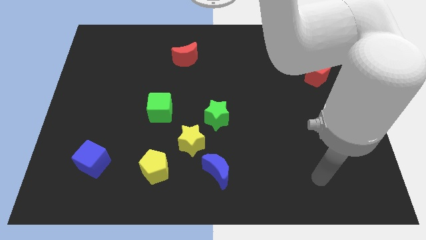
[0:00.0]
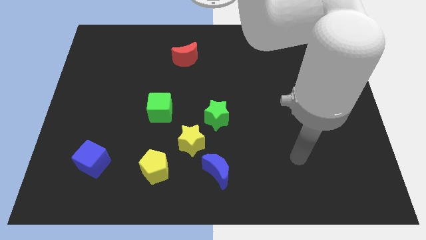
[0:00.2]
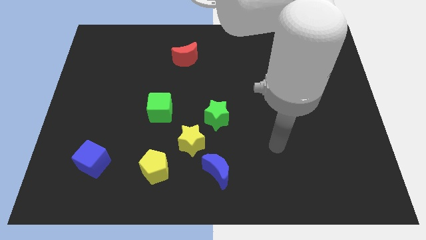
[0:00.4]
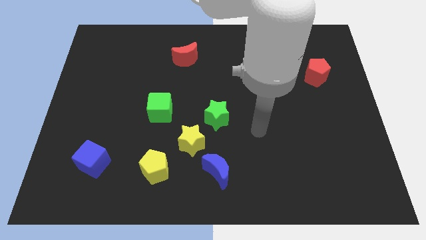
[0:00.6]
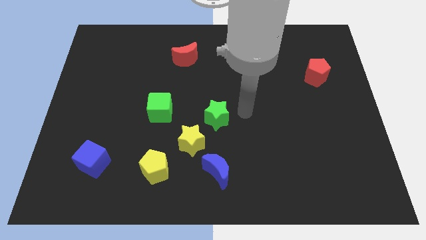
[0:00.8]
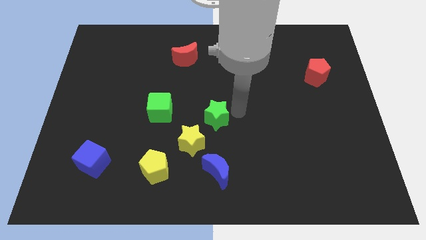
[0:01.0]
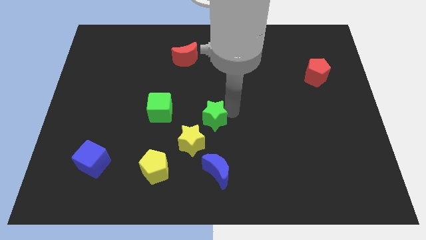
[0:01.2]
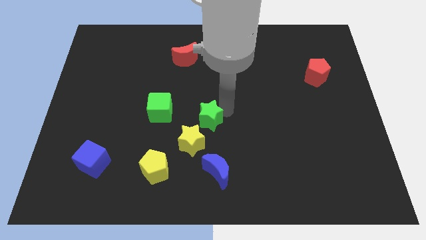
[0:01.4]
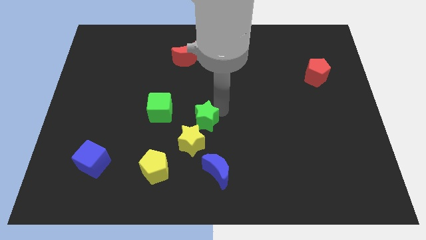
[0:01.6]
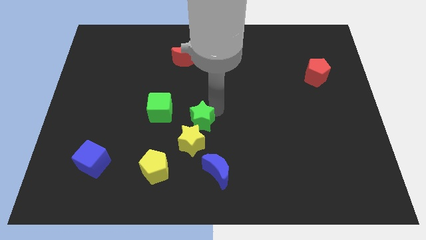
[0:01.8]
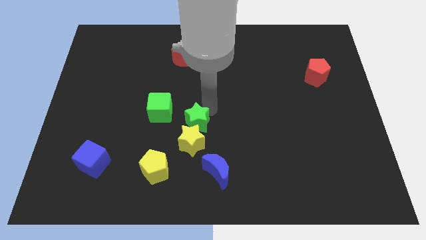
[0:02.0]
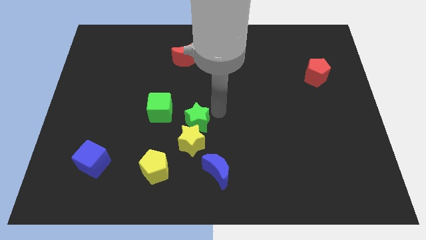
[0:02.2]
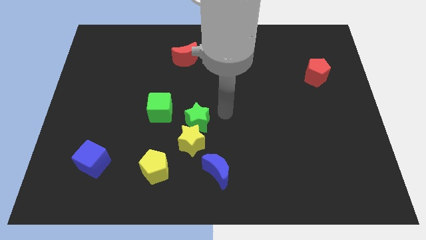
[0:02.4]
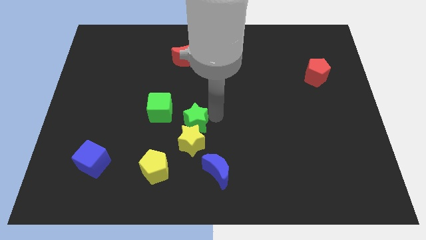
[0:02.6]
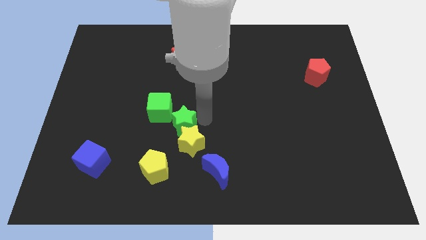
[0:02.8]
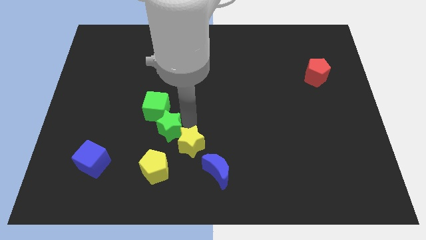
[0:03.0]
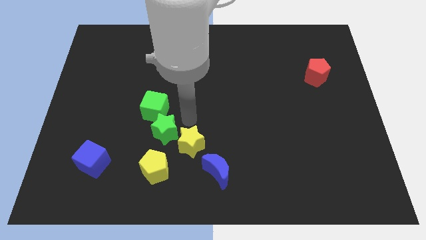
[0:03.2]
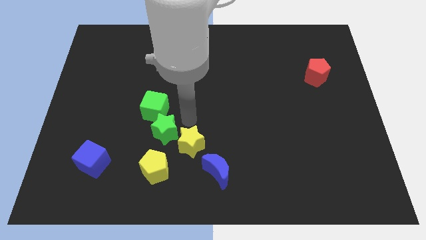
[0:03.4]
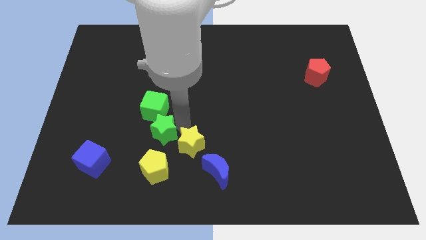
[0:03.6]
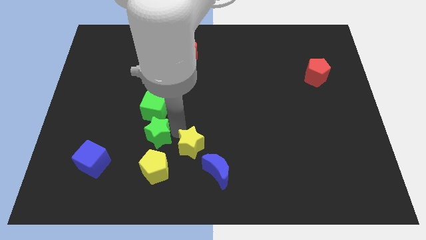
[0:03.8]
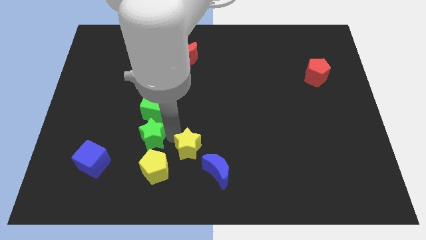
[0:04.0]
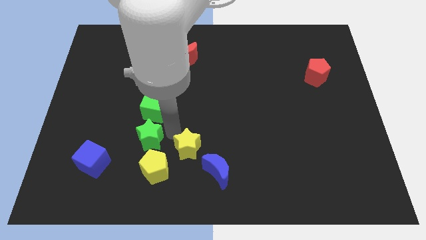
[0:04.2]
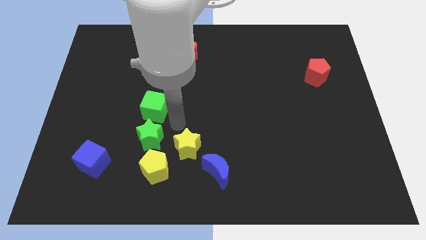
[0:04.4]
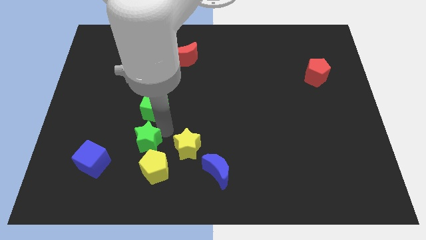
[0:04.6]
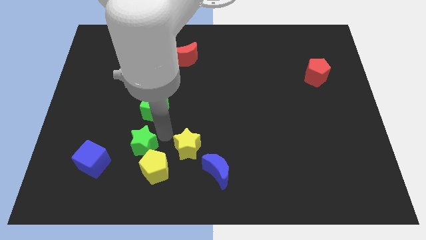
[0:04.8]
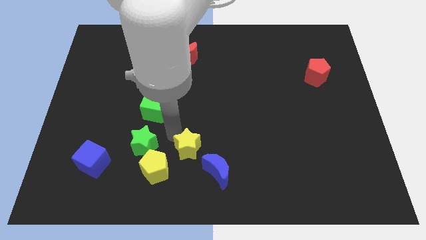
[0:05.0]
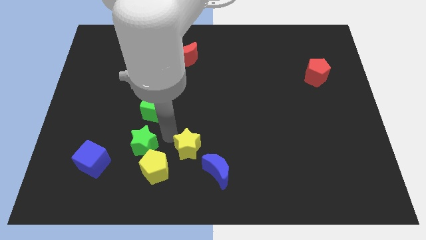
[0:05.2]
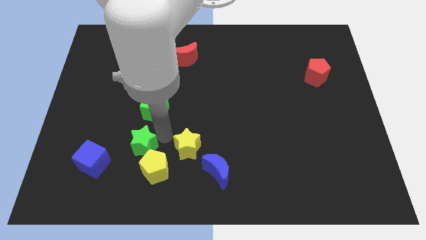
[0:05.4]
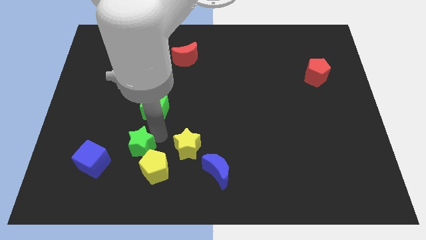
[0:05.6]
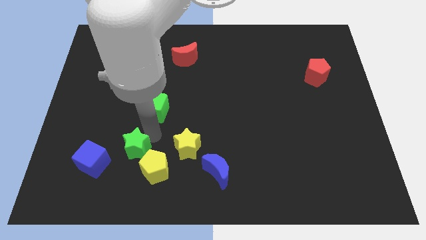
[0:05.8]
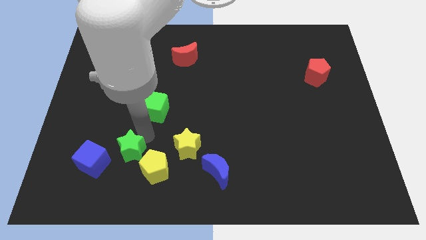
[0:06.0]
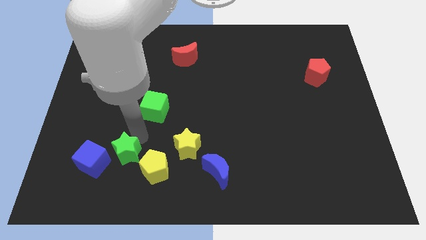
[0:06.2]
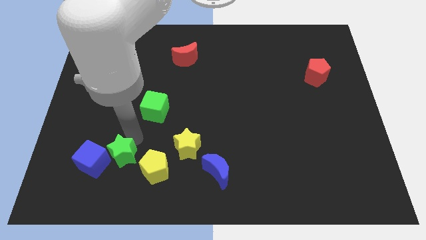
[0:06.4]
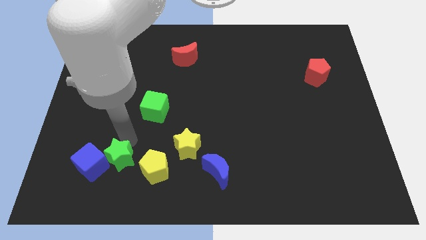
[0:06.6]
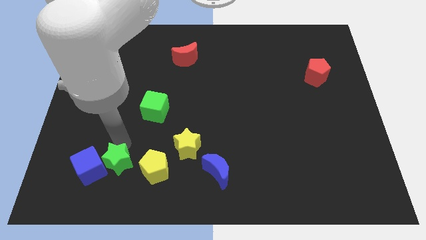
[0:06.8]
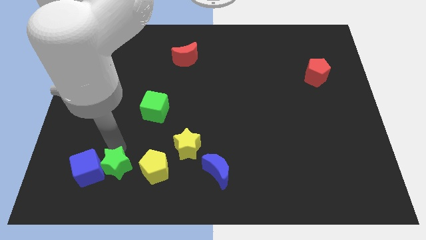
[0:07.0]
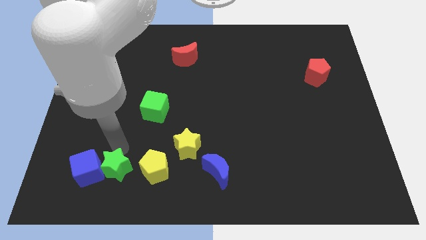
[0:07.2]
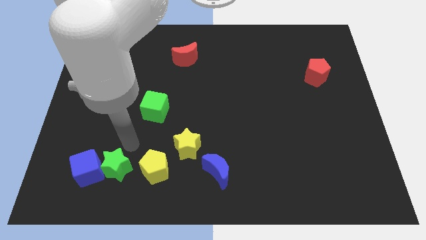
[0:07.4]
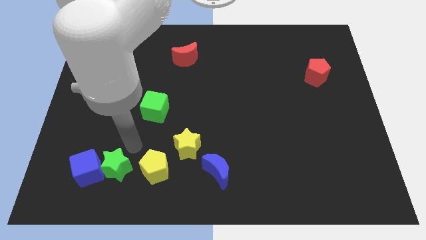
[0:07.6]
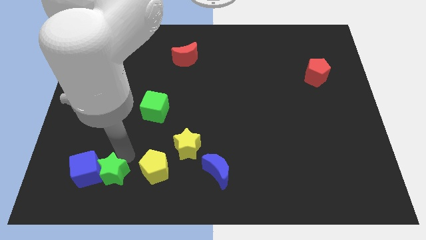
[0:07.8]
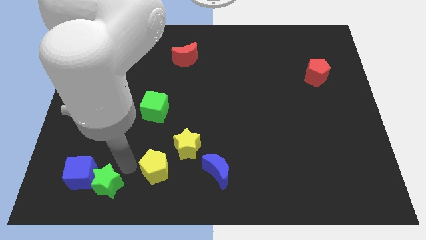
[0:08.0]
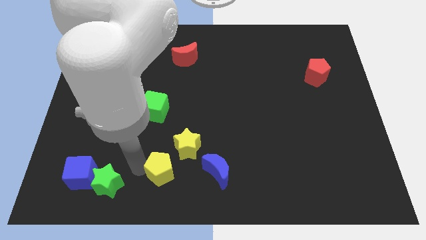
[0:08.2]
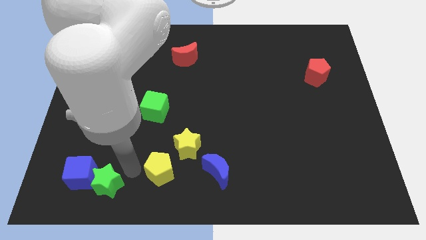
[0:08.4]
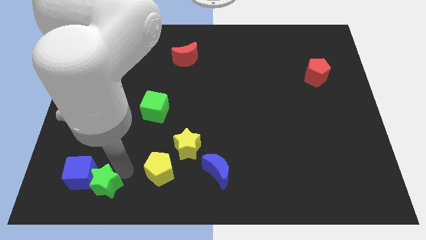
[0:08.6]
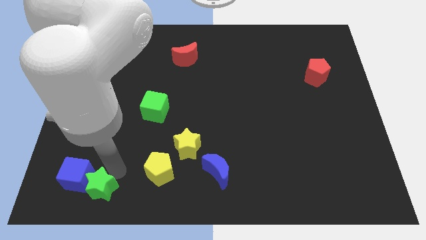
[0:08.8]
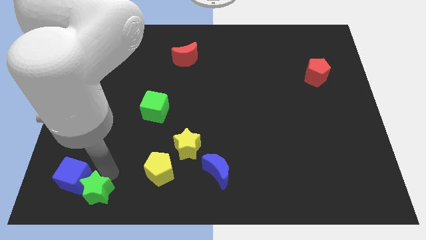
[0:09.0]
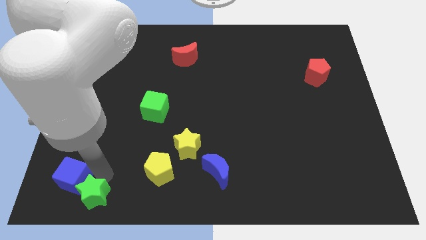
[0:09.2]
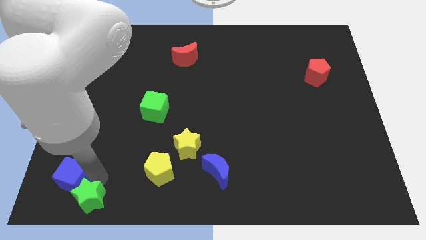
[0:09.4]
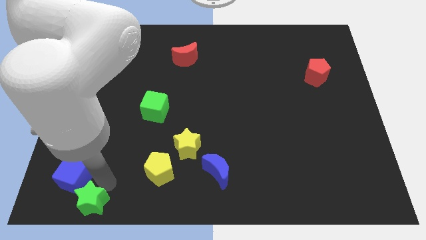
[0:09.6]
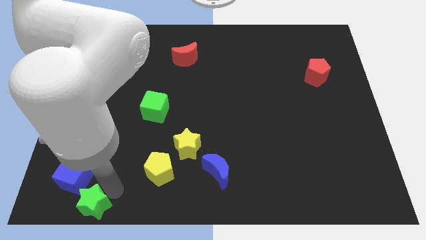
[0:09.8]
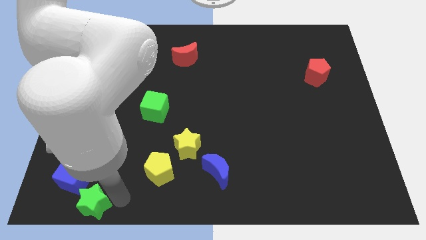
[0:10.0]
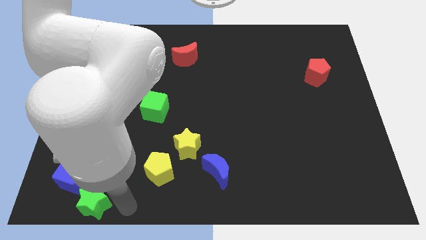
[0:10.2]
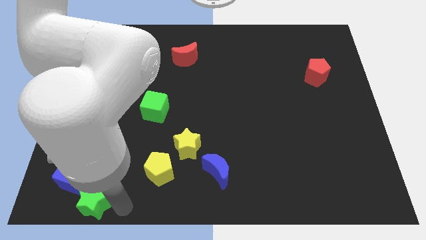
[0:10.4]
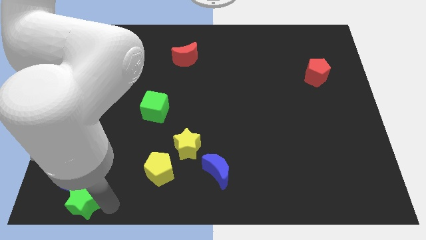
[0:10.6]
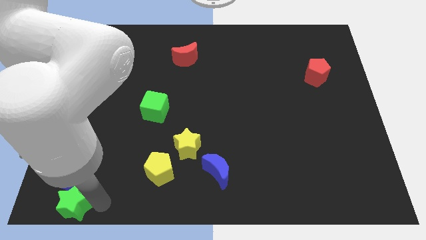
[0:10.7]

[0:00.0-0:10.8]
put the green star to the bottom left of the board
